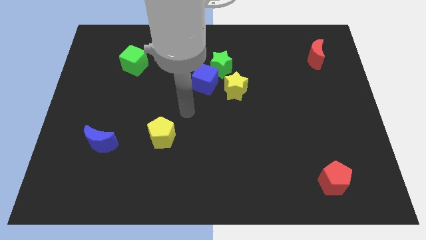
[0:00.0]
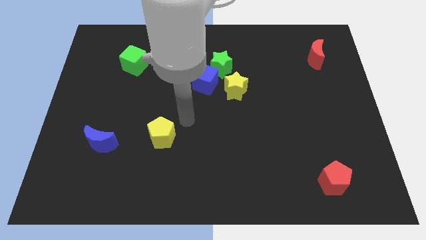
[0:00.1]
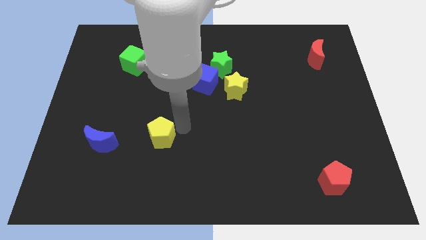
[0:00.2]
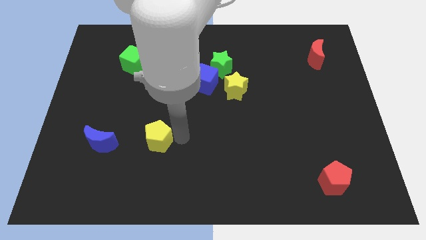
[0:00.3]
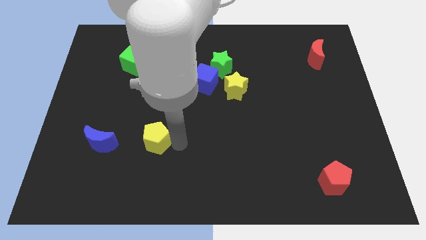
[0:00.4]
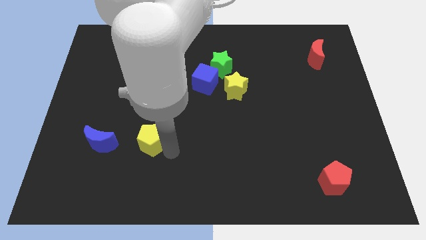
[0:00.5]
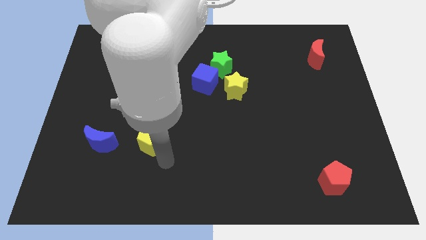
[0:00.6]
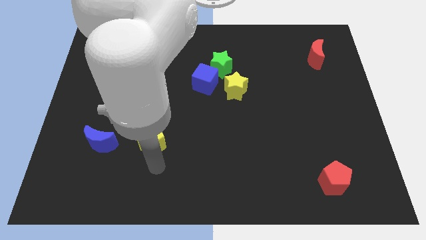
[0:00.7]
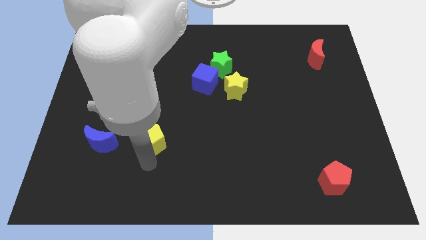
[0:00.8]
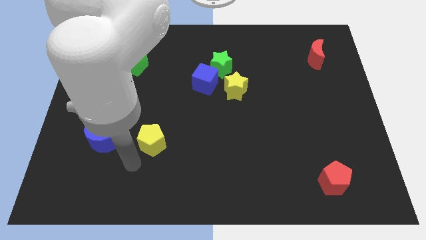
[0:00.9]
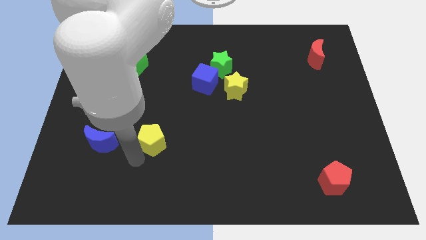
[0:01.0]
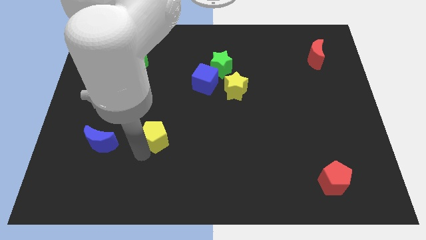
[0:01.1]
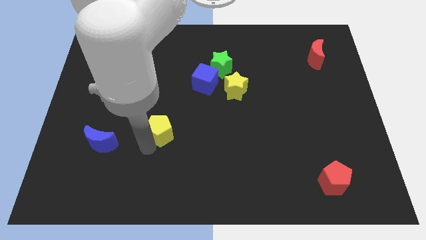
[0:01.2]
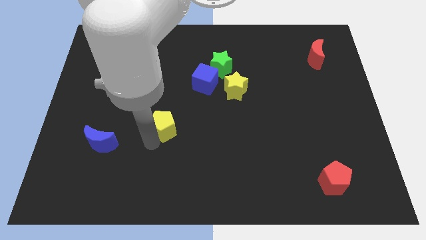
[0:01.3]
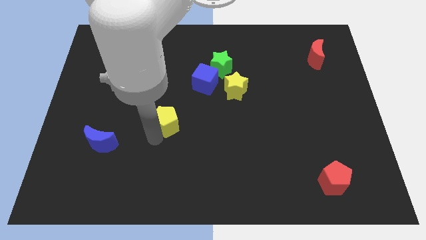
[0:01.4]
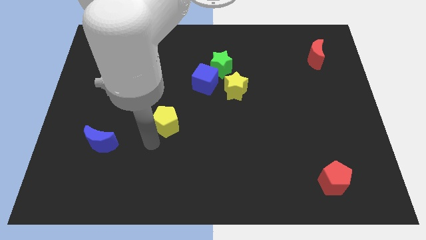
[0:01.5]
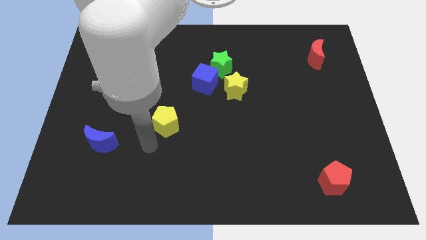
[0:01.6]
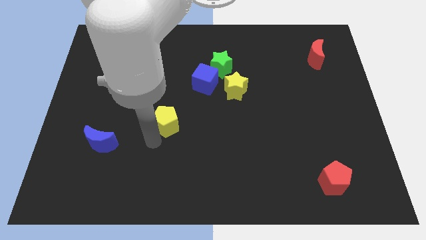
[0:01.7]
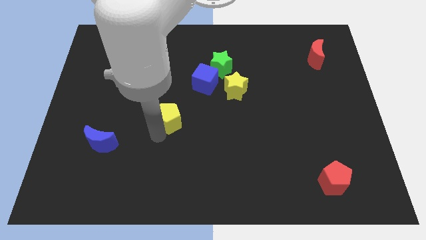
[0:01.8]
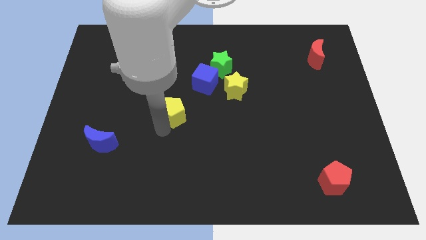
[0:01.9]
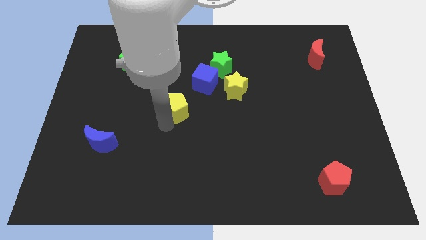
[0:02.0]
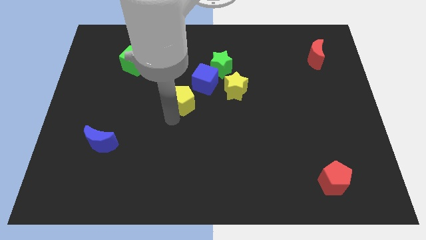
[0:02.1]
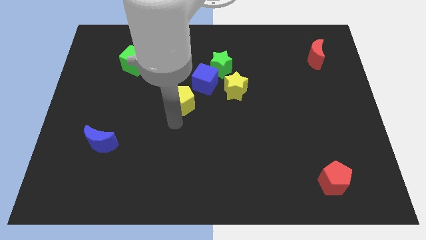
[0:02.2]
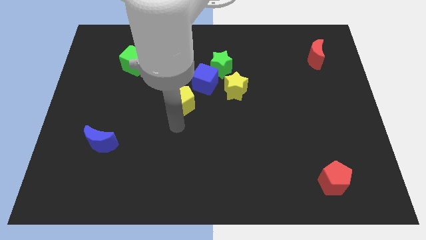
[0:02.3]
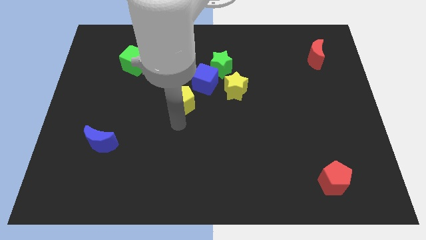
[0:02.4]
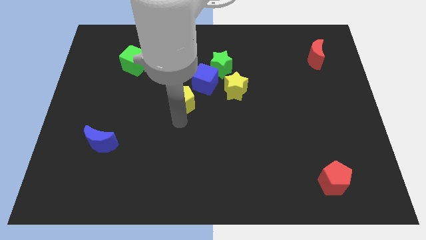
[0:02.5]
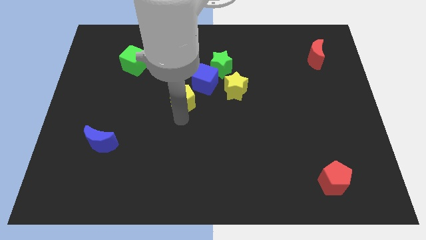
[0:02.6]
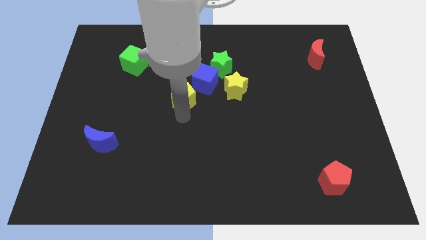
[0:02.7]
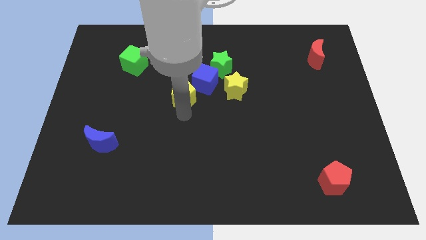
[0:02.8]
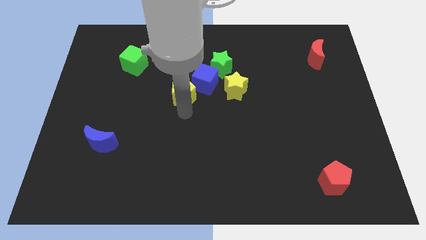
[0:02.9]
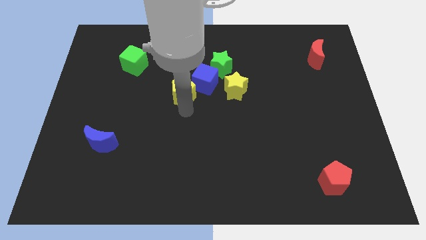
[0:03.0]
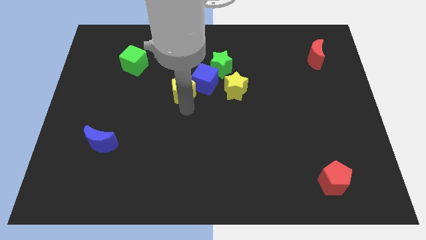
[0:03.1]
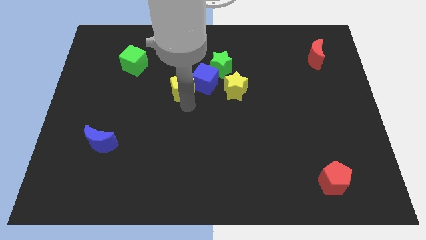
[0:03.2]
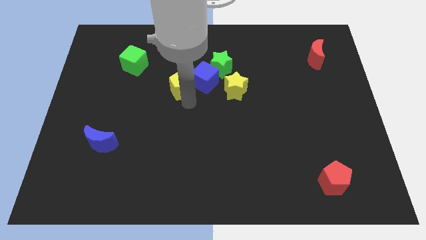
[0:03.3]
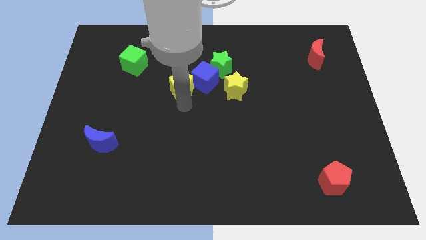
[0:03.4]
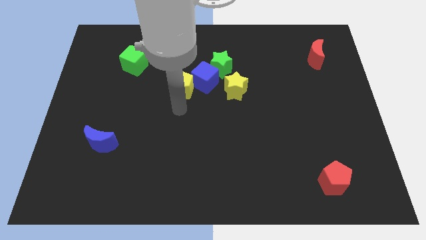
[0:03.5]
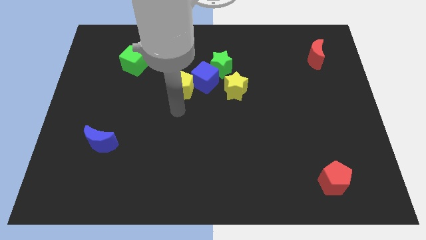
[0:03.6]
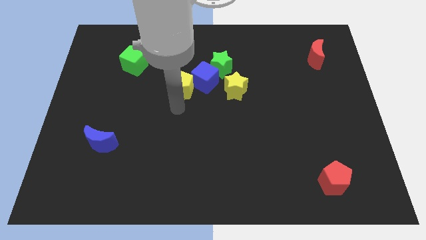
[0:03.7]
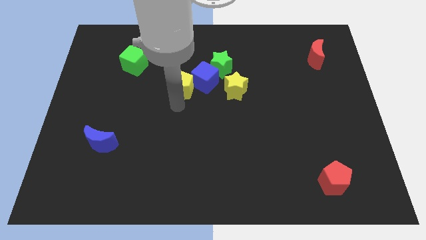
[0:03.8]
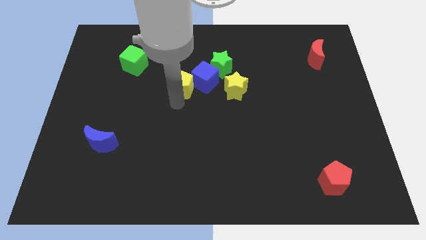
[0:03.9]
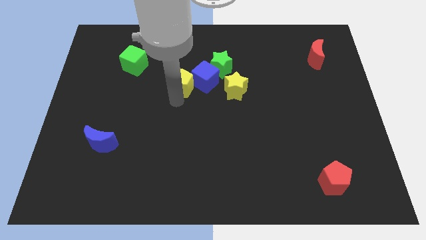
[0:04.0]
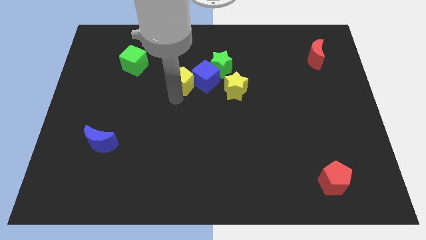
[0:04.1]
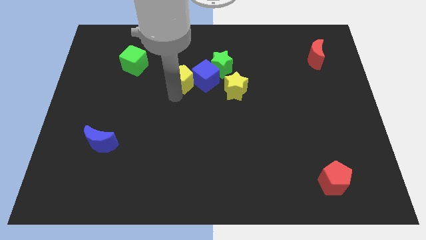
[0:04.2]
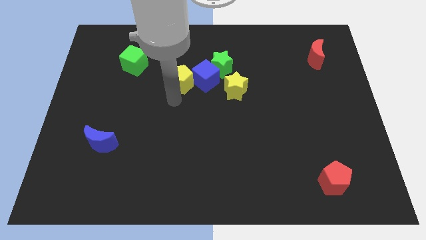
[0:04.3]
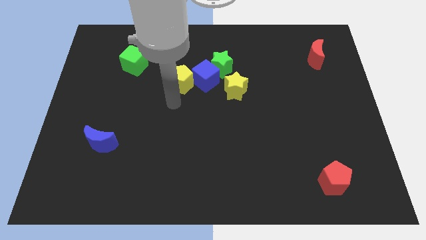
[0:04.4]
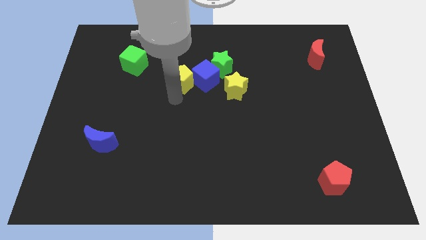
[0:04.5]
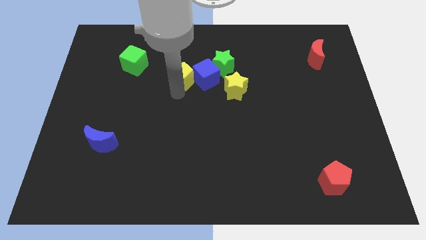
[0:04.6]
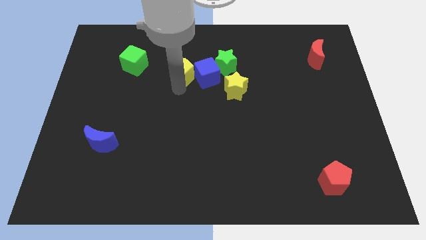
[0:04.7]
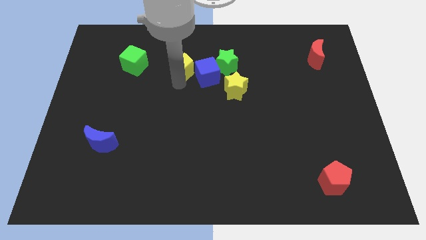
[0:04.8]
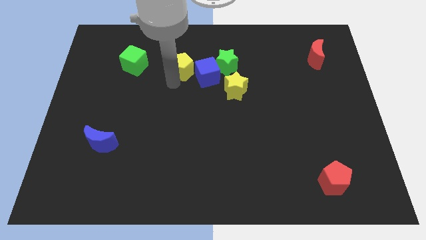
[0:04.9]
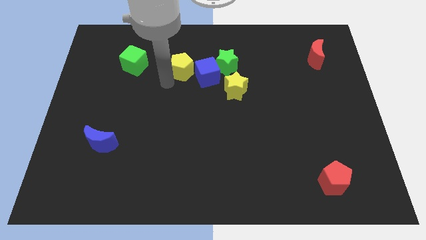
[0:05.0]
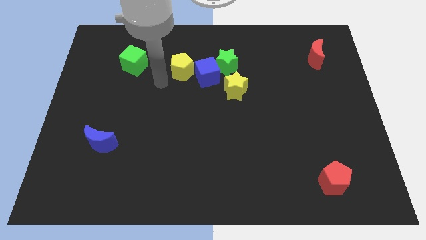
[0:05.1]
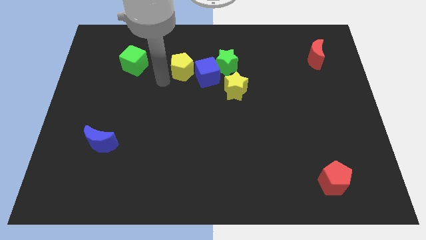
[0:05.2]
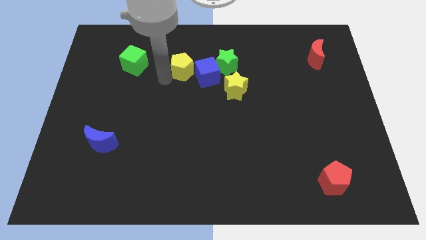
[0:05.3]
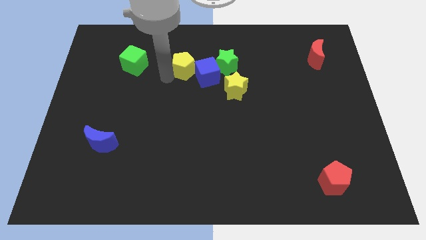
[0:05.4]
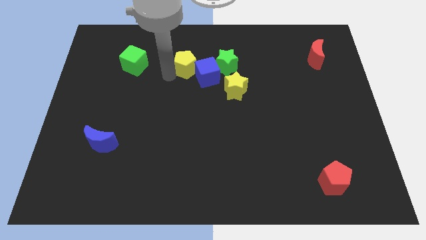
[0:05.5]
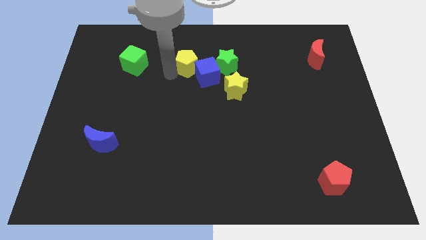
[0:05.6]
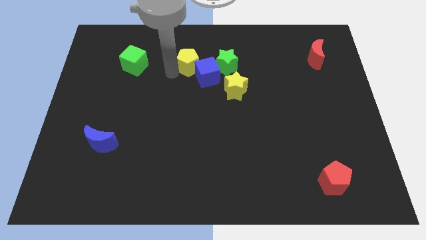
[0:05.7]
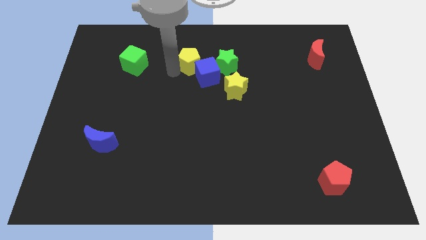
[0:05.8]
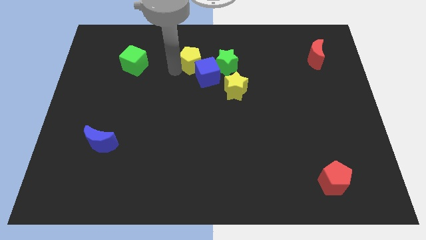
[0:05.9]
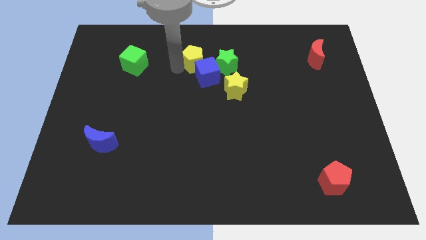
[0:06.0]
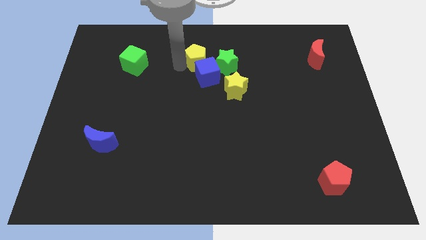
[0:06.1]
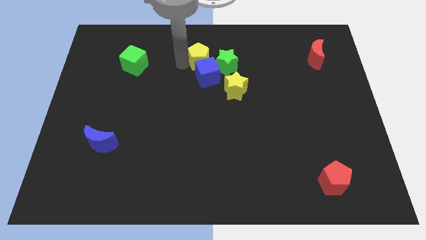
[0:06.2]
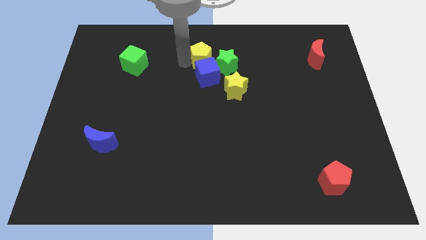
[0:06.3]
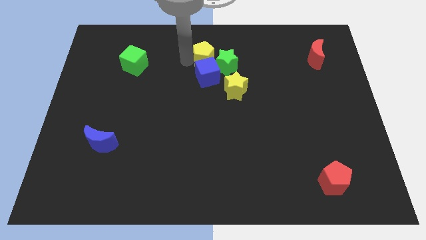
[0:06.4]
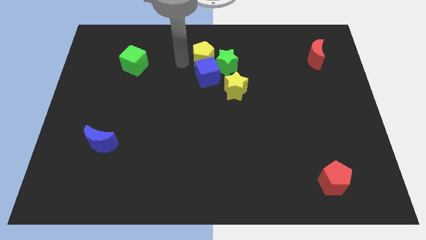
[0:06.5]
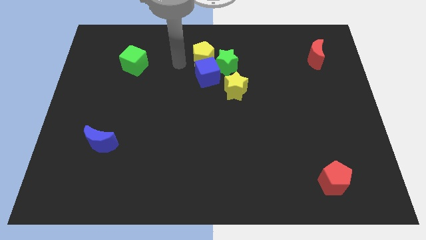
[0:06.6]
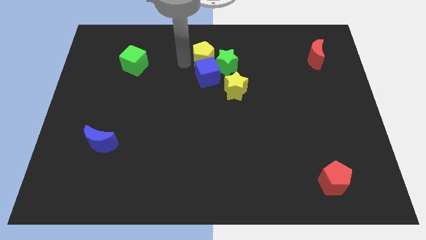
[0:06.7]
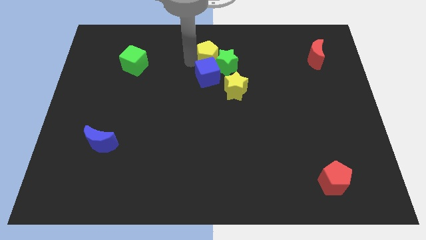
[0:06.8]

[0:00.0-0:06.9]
move the yellow pentagon to the top right of the blue cube
